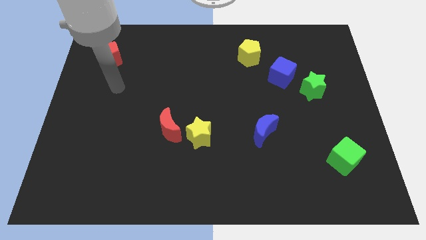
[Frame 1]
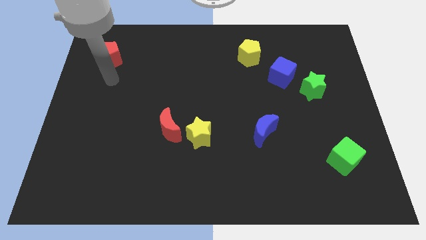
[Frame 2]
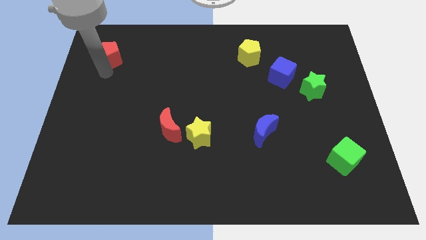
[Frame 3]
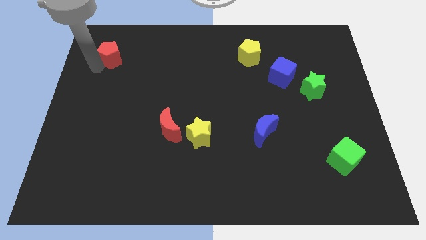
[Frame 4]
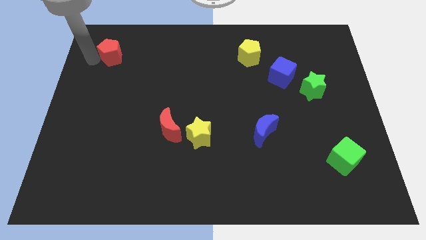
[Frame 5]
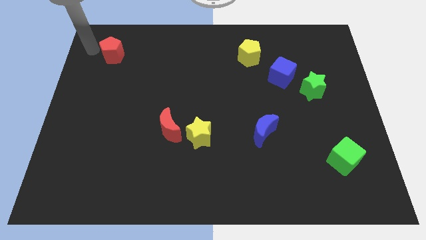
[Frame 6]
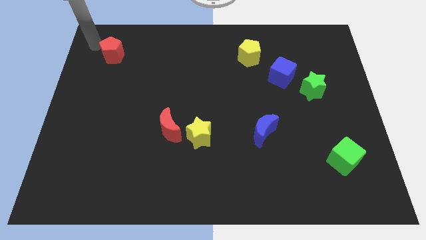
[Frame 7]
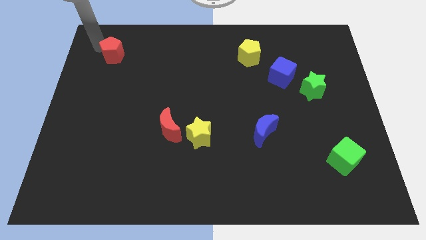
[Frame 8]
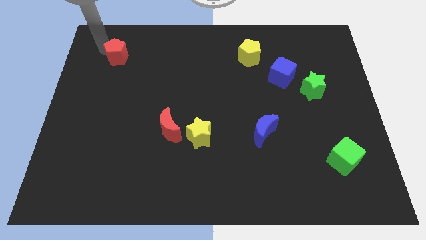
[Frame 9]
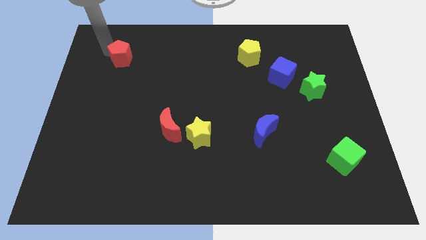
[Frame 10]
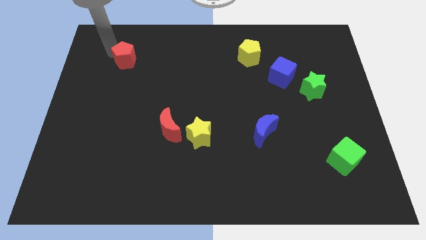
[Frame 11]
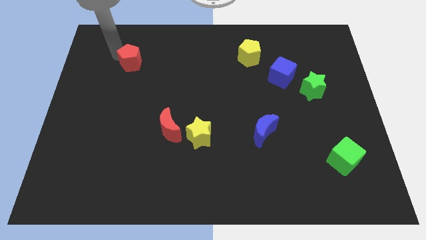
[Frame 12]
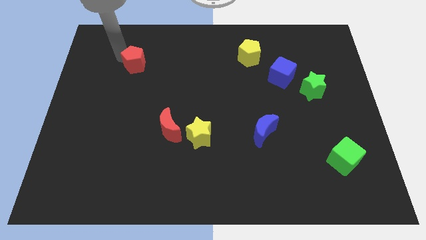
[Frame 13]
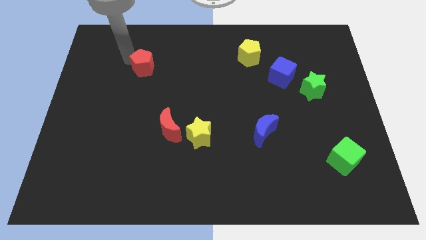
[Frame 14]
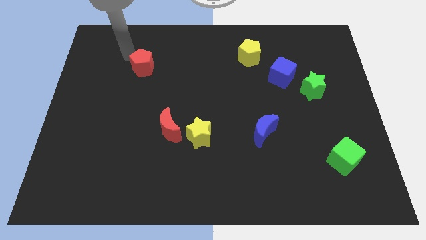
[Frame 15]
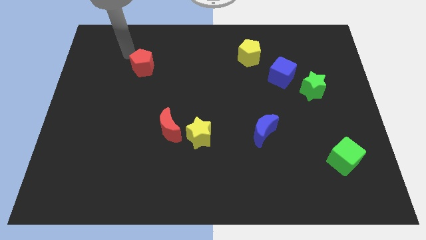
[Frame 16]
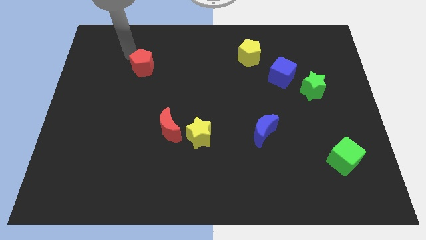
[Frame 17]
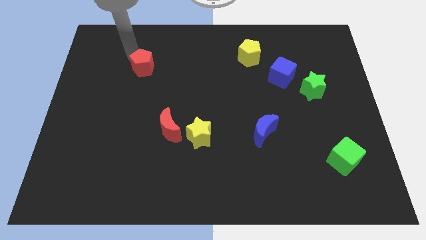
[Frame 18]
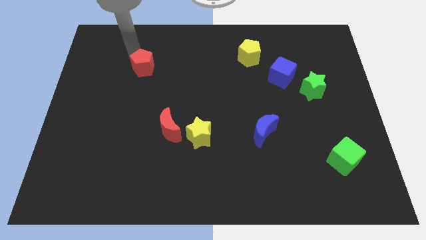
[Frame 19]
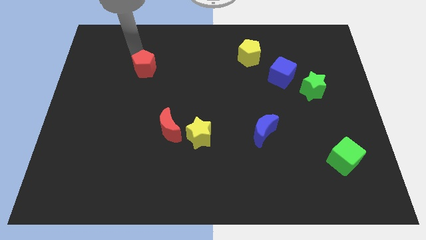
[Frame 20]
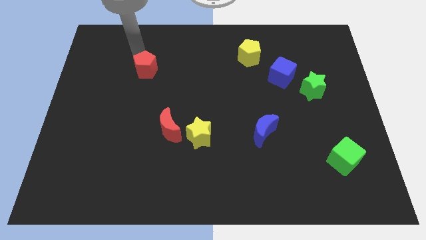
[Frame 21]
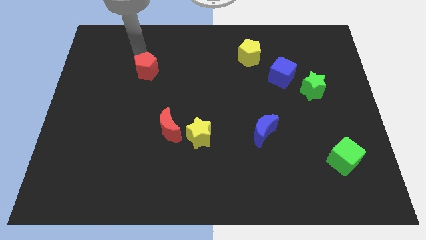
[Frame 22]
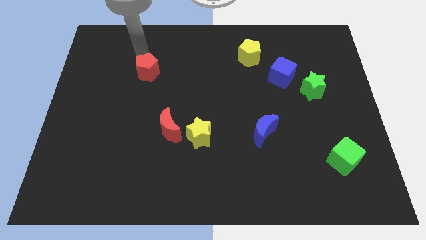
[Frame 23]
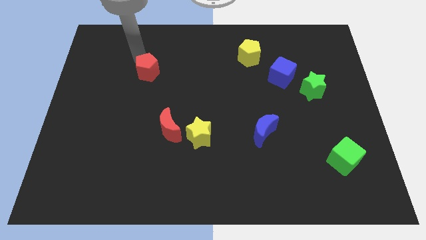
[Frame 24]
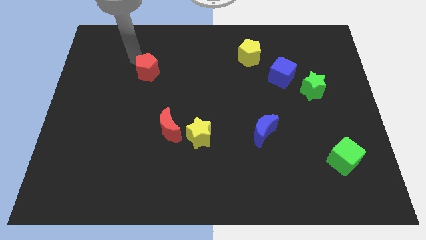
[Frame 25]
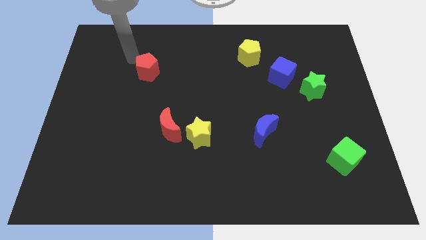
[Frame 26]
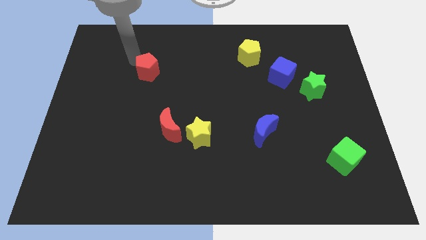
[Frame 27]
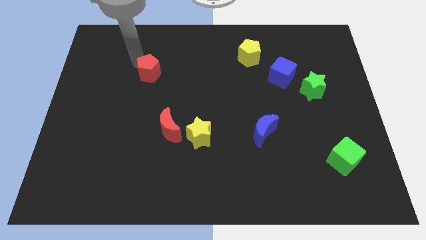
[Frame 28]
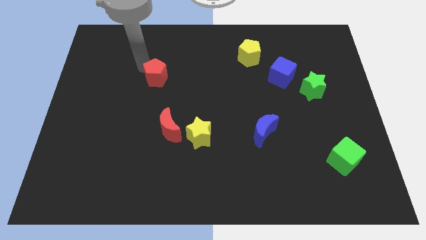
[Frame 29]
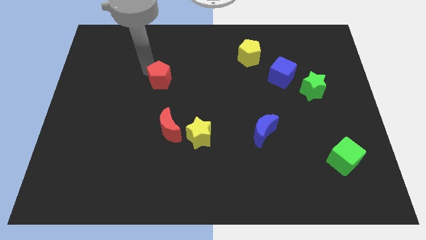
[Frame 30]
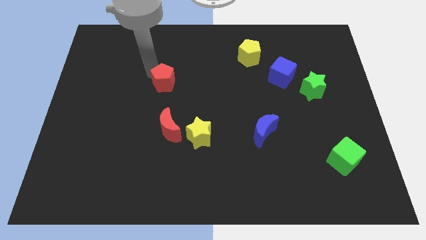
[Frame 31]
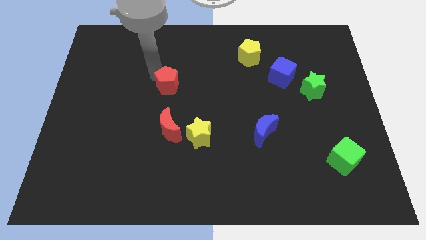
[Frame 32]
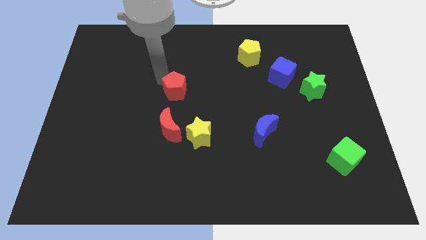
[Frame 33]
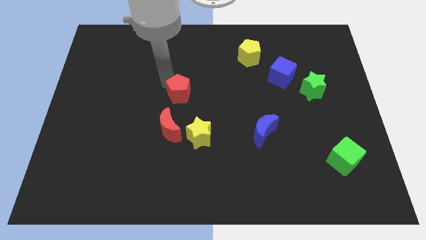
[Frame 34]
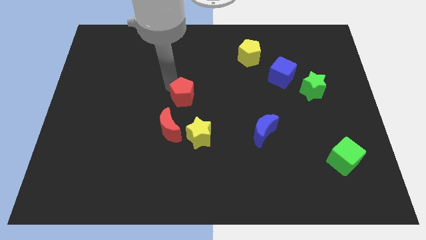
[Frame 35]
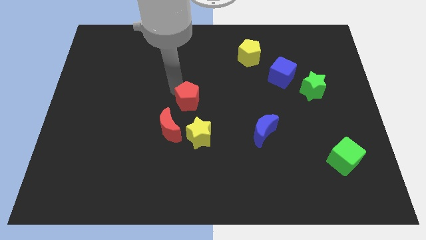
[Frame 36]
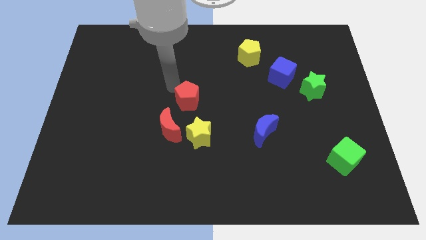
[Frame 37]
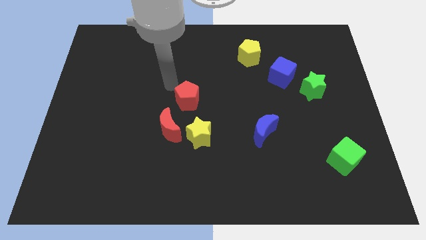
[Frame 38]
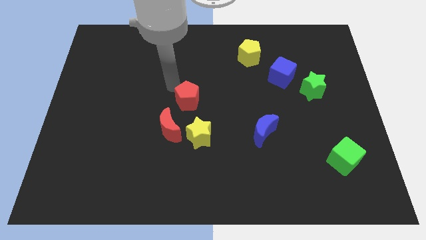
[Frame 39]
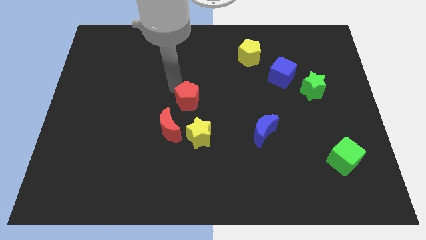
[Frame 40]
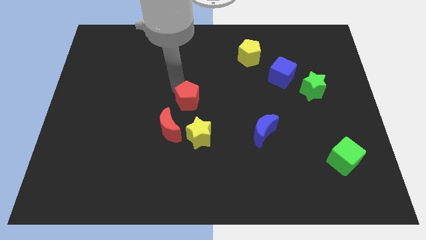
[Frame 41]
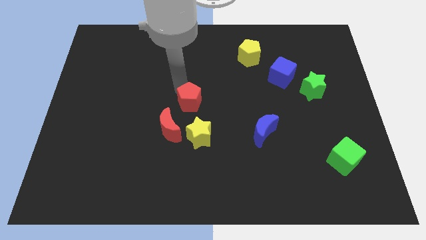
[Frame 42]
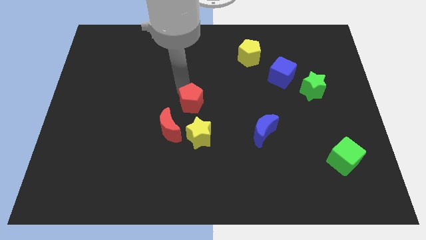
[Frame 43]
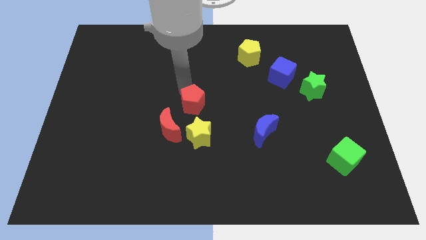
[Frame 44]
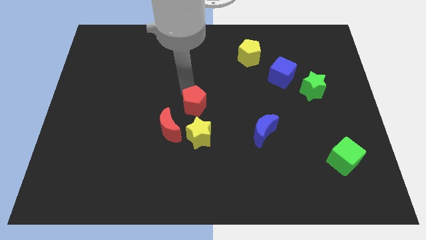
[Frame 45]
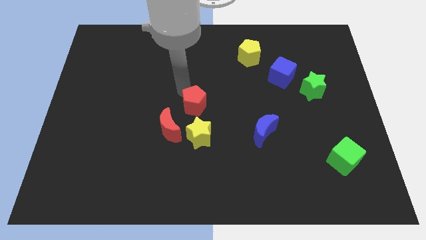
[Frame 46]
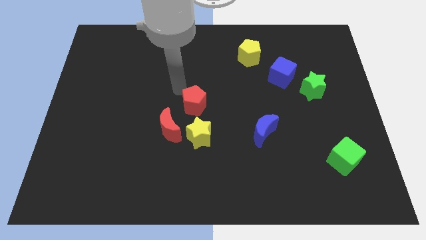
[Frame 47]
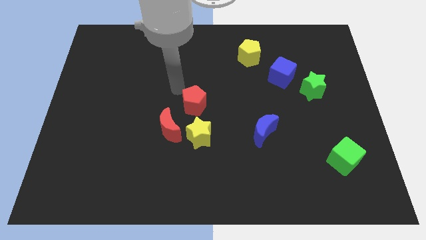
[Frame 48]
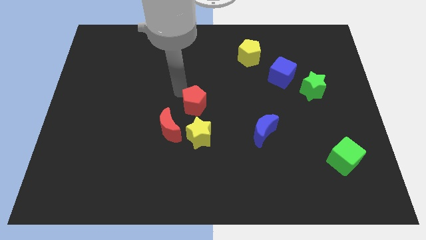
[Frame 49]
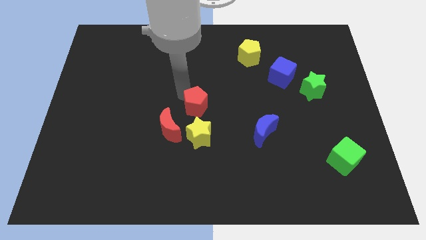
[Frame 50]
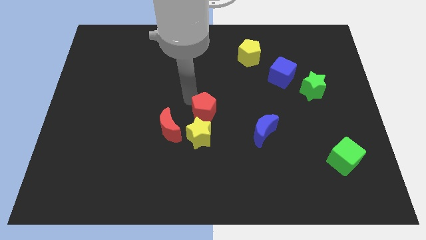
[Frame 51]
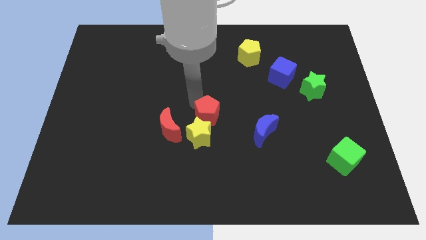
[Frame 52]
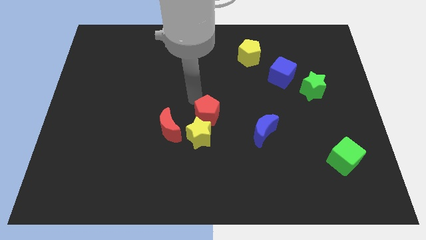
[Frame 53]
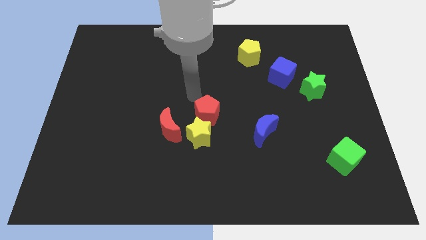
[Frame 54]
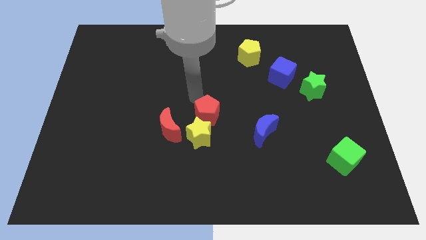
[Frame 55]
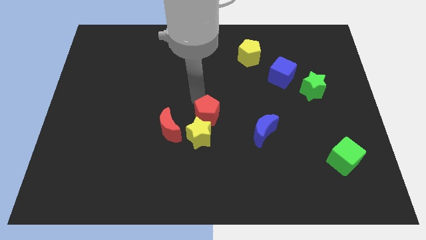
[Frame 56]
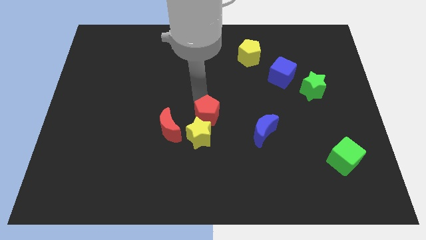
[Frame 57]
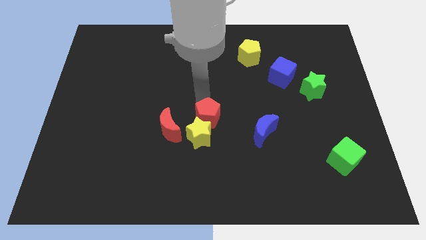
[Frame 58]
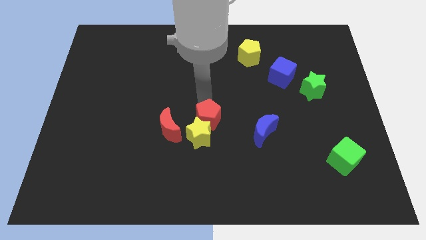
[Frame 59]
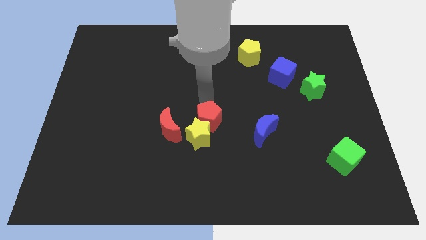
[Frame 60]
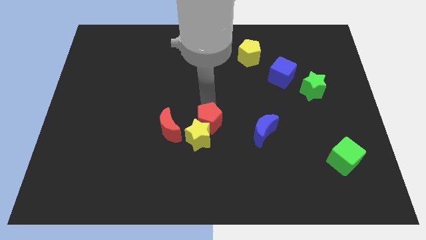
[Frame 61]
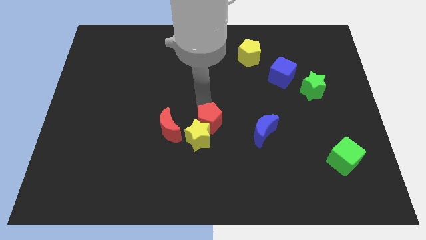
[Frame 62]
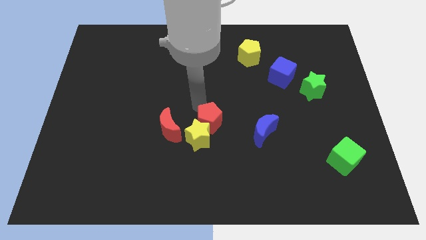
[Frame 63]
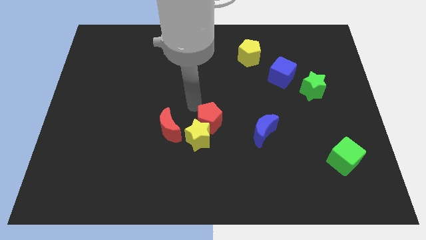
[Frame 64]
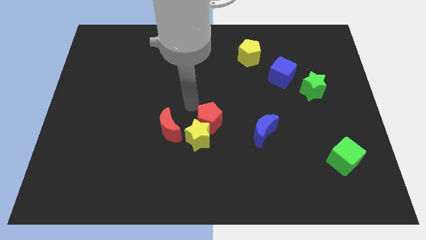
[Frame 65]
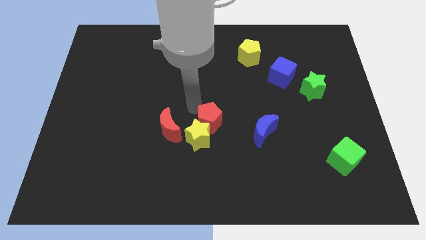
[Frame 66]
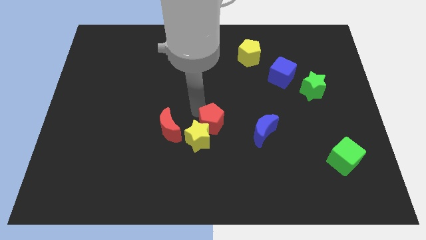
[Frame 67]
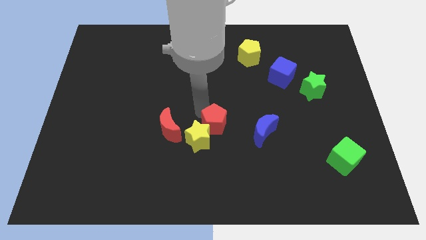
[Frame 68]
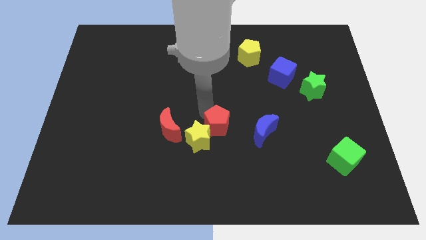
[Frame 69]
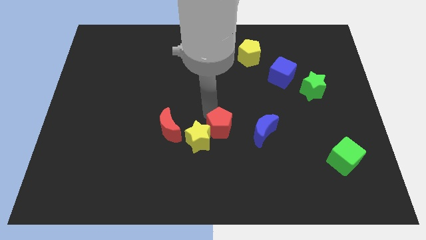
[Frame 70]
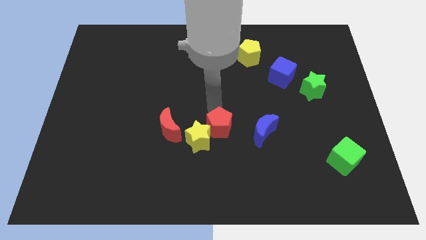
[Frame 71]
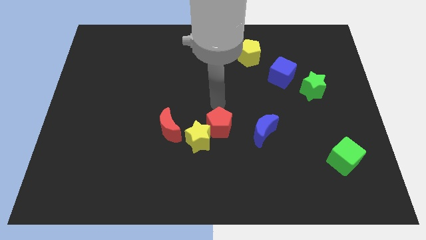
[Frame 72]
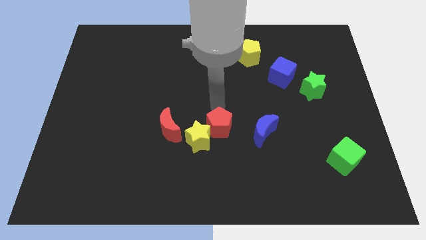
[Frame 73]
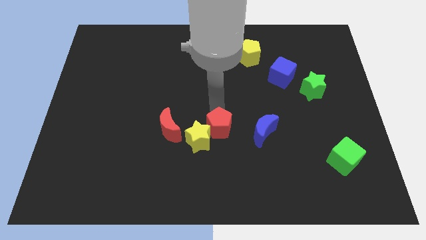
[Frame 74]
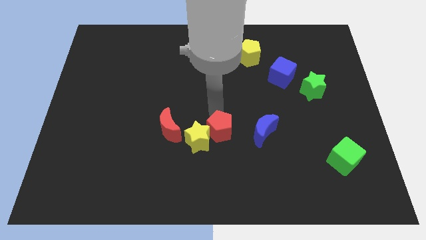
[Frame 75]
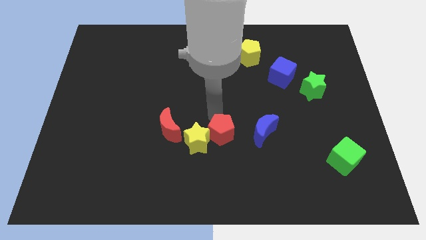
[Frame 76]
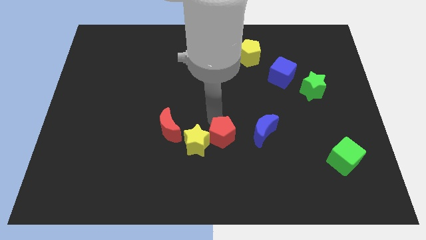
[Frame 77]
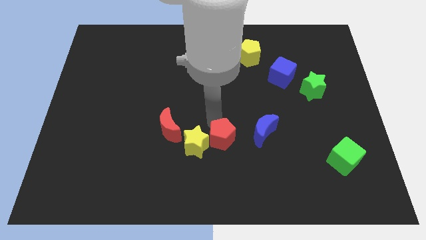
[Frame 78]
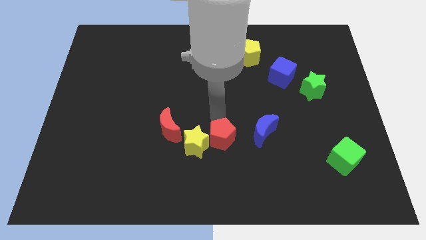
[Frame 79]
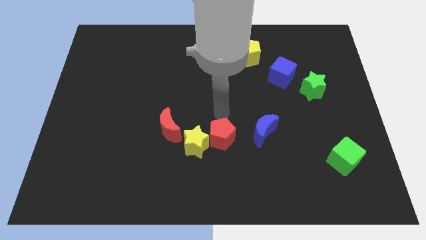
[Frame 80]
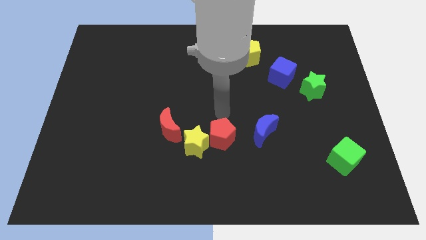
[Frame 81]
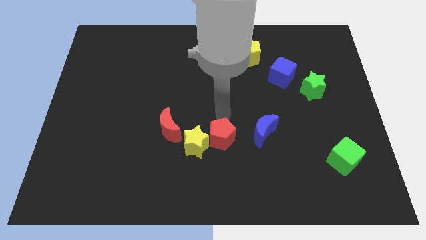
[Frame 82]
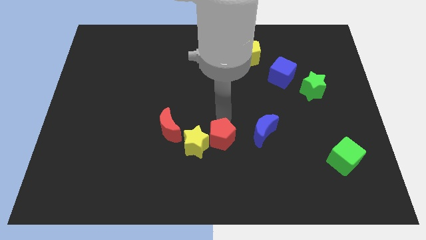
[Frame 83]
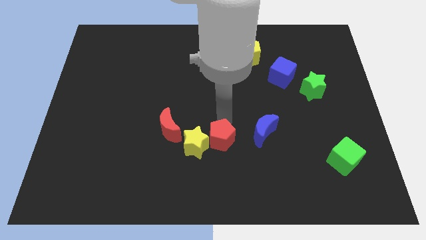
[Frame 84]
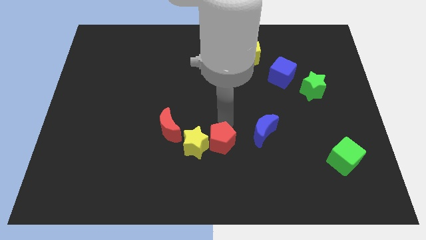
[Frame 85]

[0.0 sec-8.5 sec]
put the red pentagon to the bottom right of the yellow star
